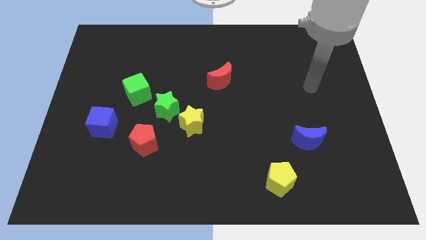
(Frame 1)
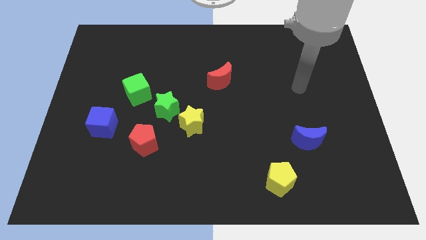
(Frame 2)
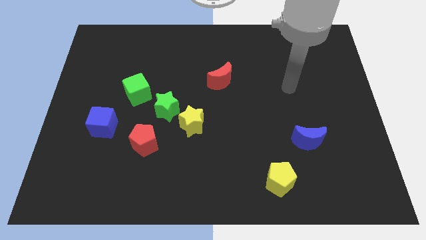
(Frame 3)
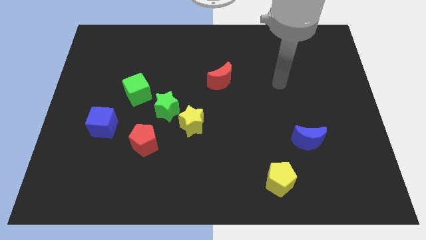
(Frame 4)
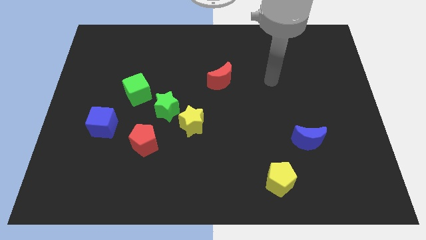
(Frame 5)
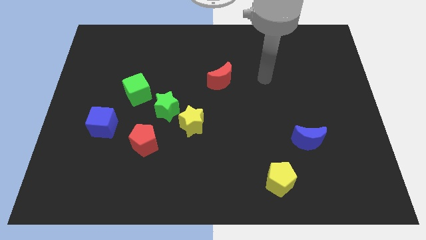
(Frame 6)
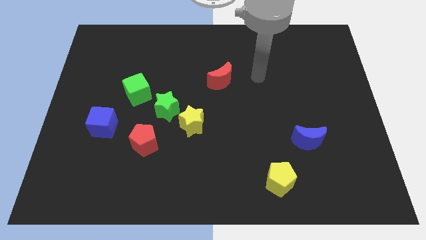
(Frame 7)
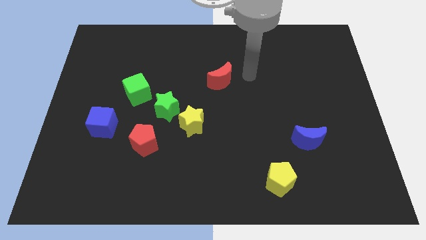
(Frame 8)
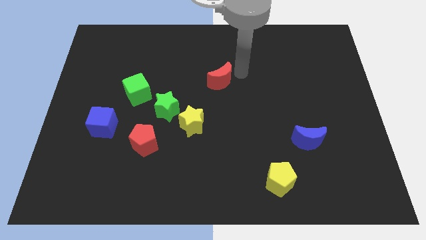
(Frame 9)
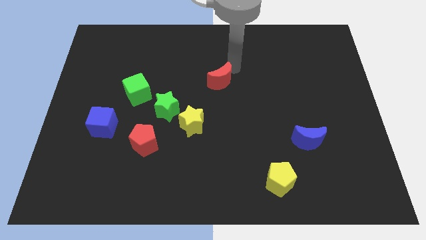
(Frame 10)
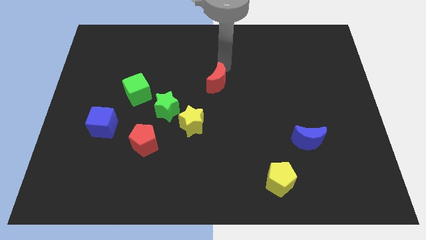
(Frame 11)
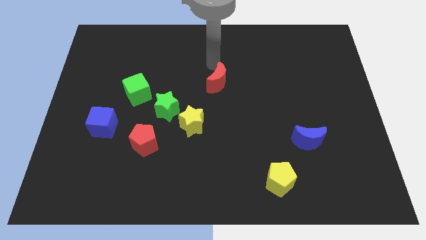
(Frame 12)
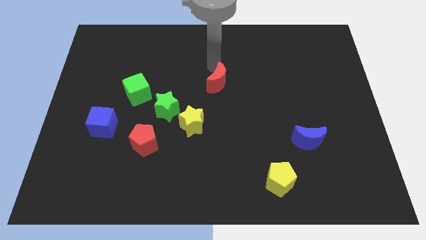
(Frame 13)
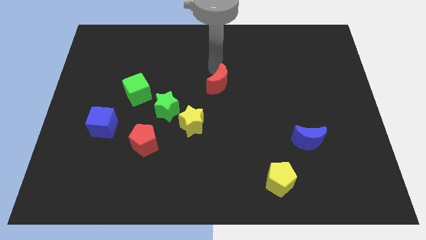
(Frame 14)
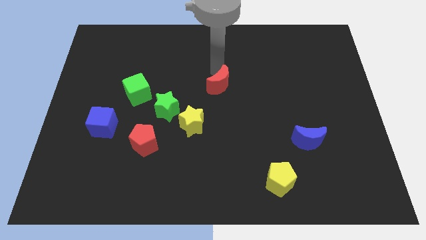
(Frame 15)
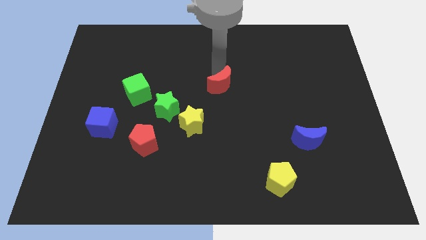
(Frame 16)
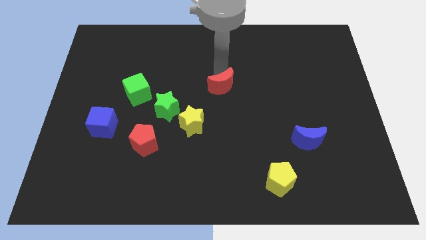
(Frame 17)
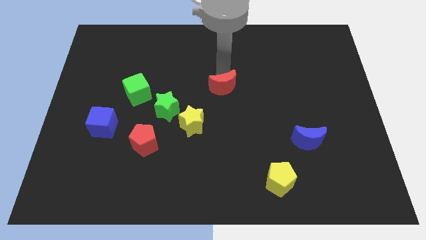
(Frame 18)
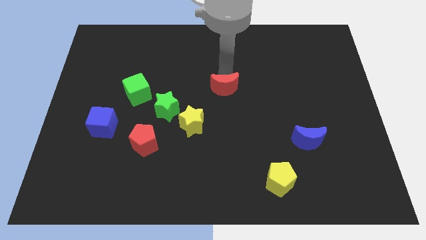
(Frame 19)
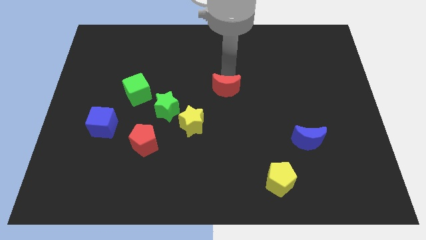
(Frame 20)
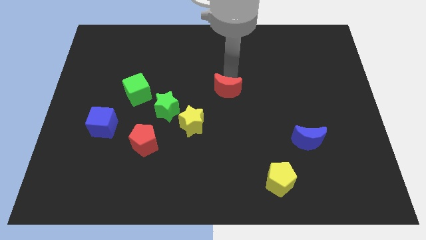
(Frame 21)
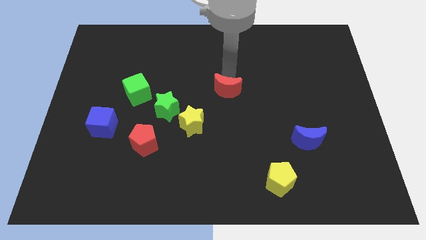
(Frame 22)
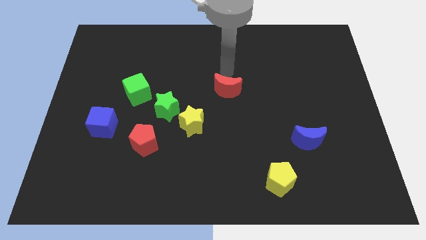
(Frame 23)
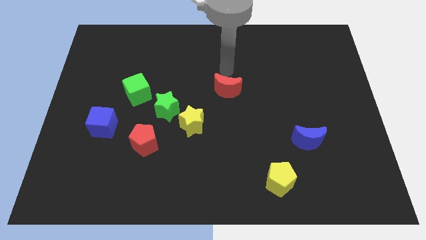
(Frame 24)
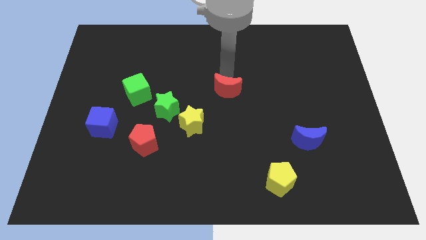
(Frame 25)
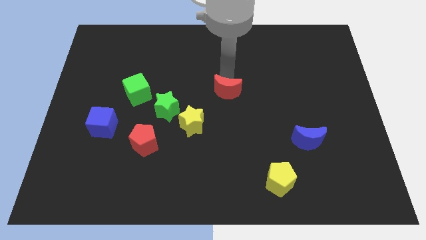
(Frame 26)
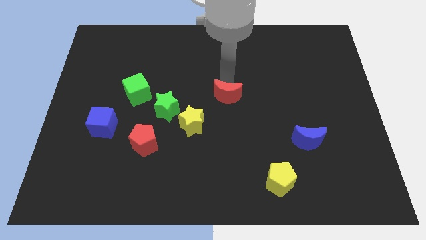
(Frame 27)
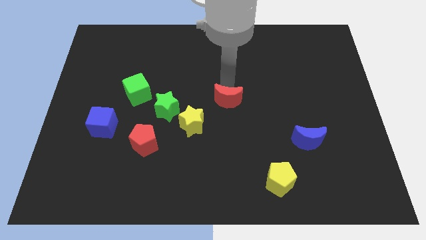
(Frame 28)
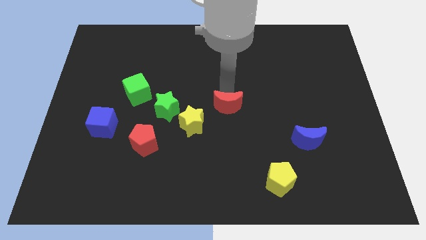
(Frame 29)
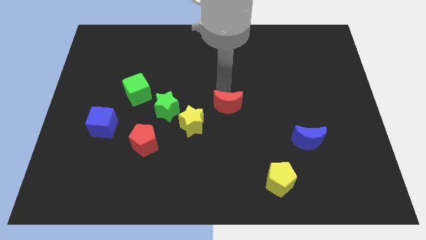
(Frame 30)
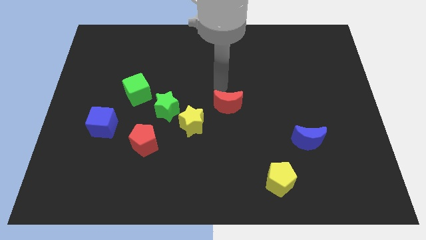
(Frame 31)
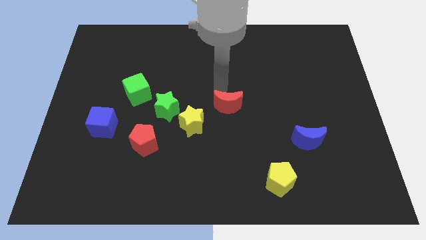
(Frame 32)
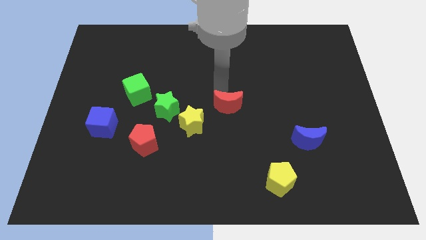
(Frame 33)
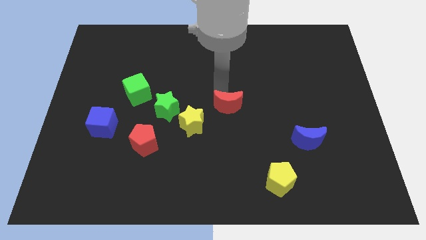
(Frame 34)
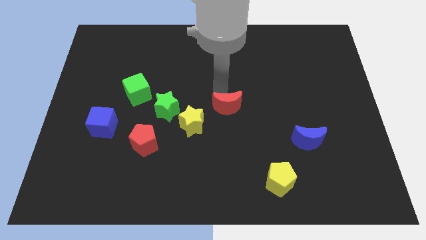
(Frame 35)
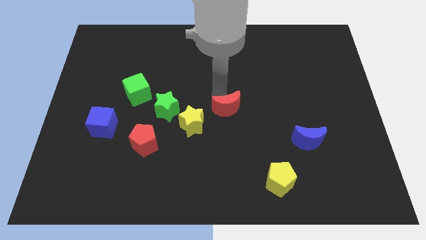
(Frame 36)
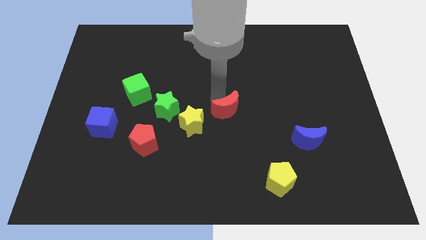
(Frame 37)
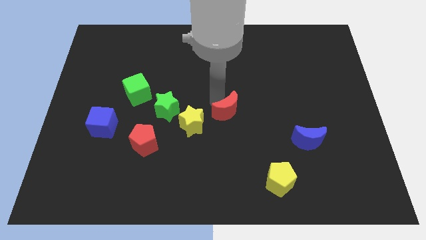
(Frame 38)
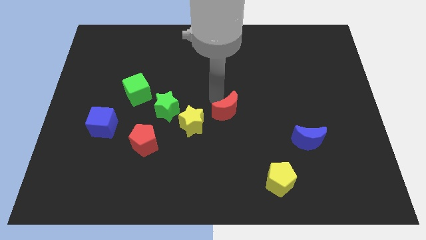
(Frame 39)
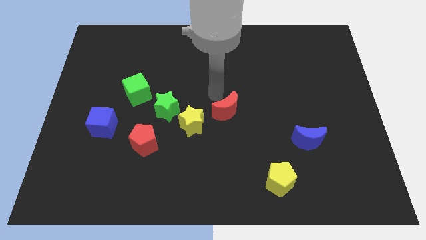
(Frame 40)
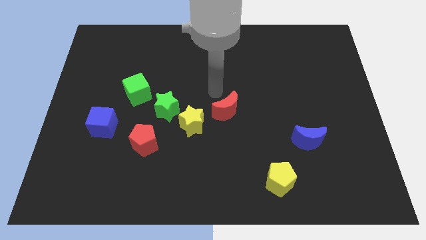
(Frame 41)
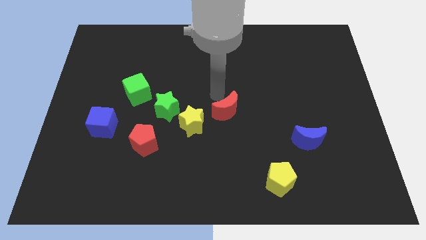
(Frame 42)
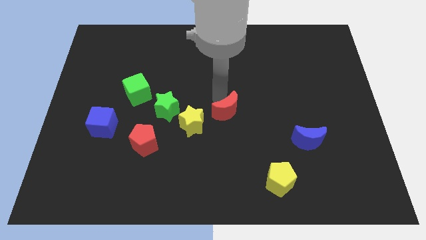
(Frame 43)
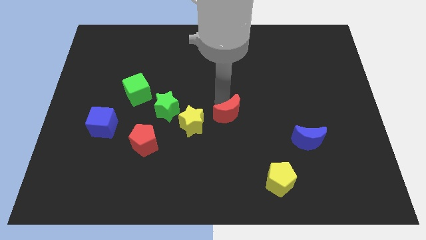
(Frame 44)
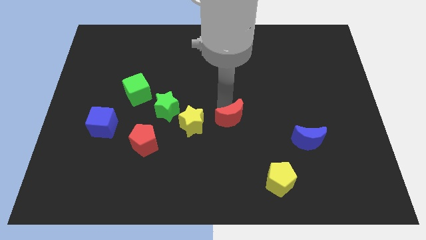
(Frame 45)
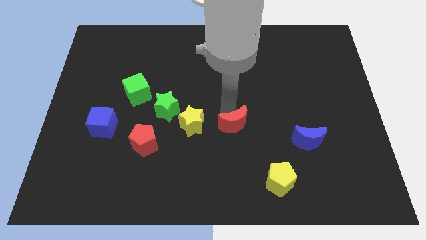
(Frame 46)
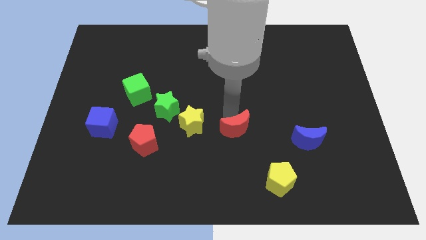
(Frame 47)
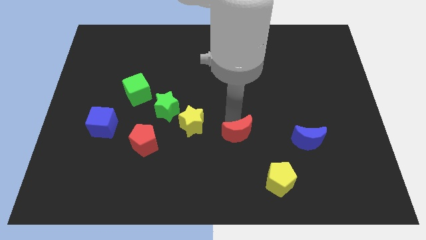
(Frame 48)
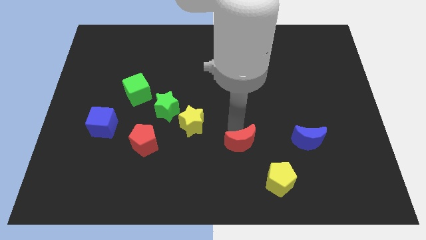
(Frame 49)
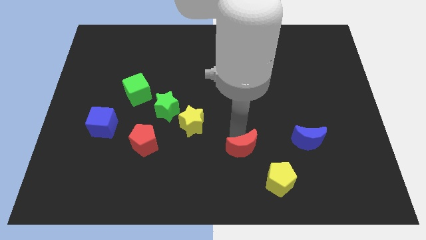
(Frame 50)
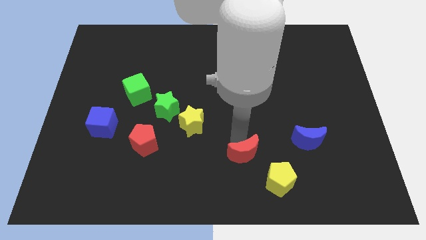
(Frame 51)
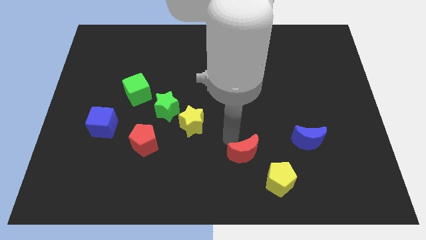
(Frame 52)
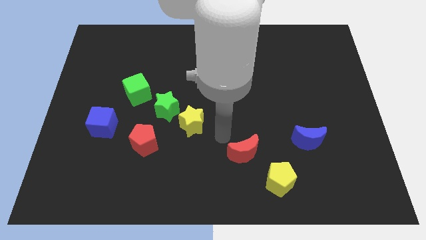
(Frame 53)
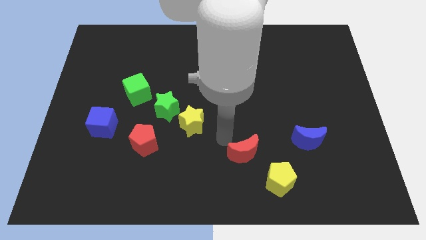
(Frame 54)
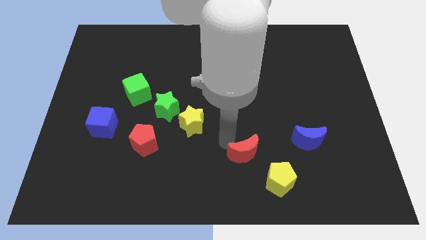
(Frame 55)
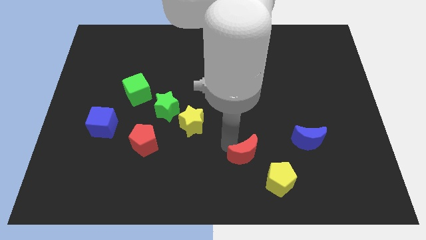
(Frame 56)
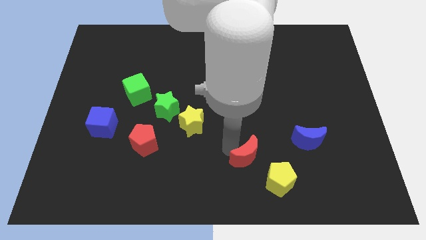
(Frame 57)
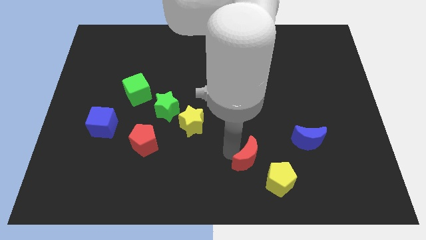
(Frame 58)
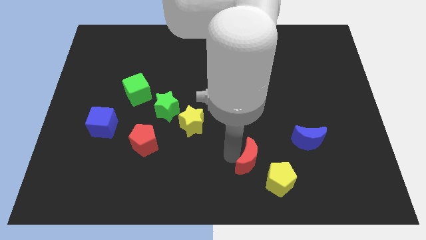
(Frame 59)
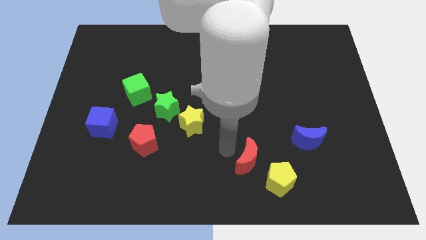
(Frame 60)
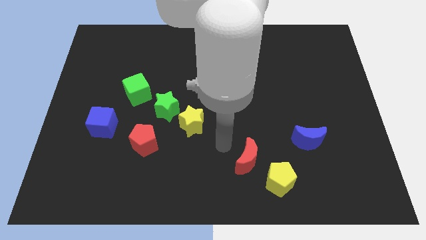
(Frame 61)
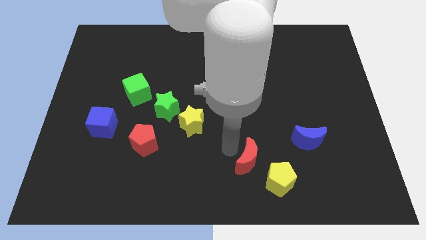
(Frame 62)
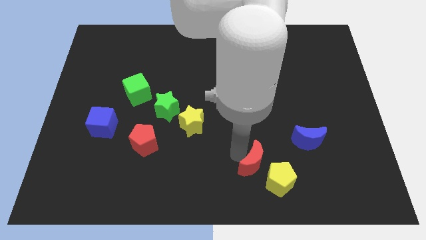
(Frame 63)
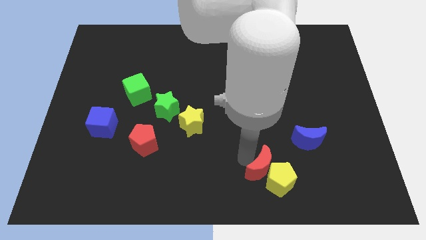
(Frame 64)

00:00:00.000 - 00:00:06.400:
move the red moon close to the yellow pentagon

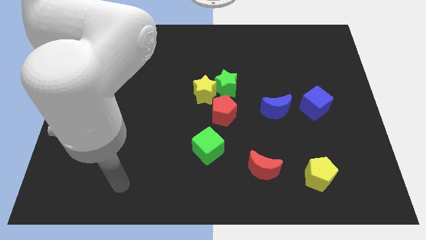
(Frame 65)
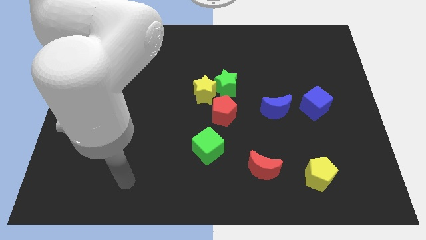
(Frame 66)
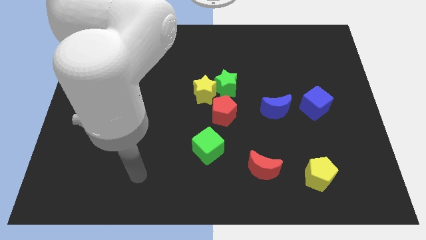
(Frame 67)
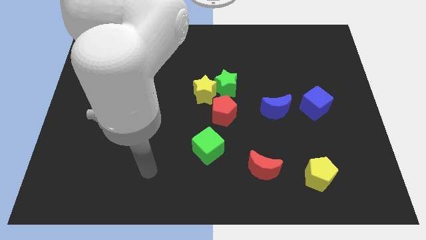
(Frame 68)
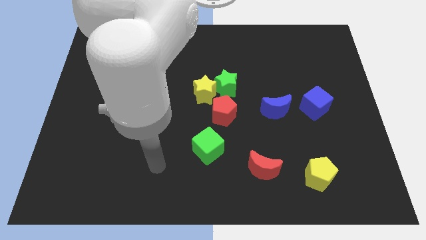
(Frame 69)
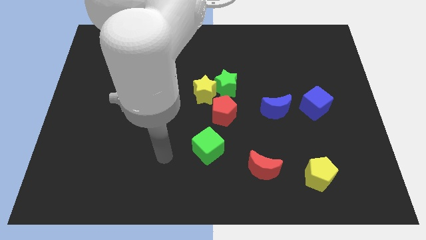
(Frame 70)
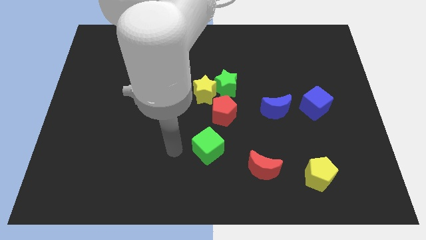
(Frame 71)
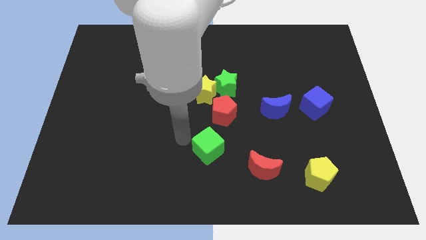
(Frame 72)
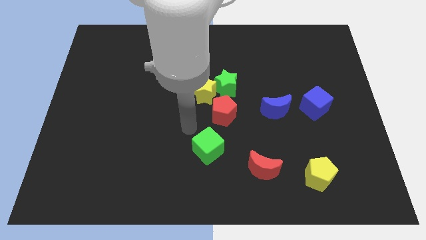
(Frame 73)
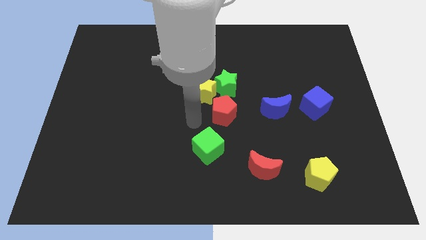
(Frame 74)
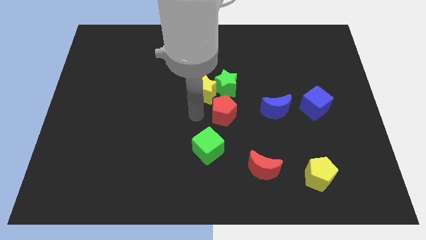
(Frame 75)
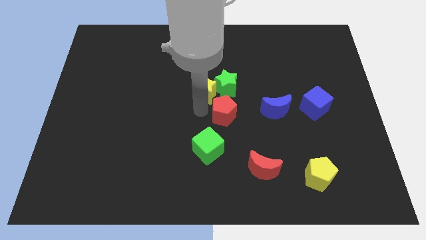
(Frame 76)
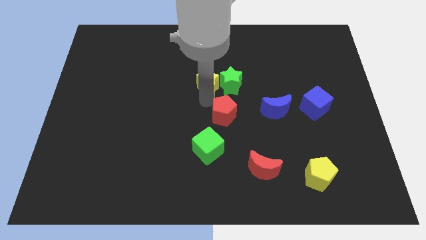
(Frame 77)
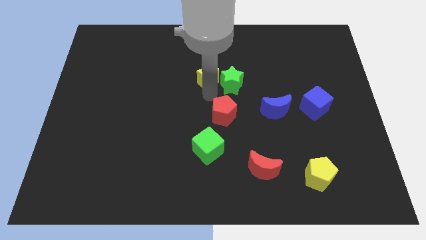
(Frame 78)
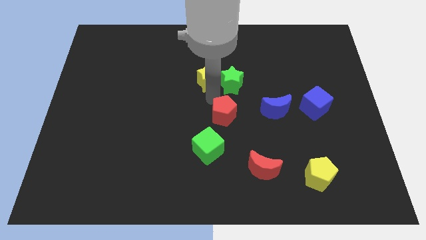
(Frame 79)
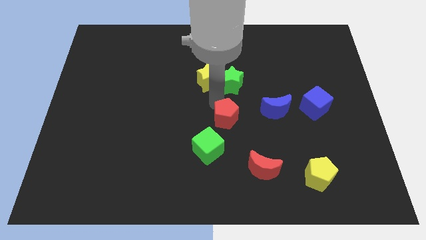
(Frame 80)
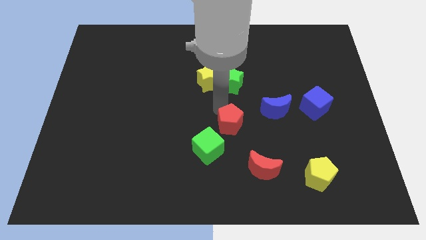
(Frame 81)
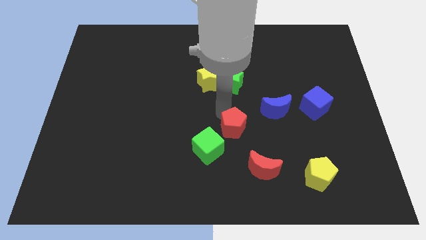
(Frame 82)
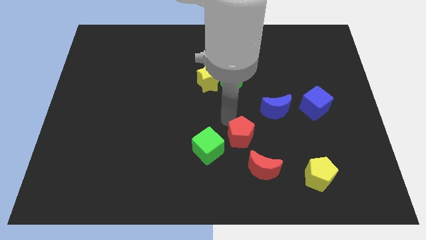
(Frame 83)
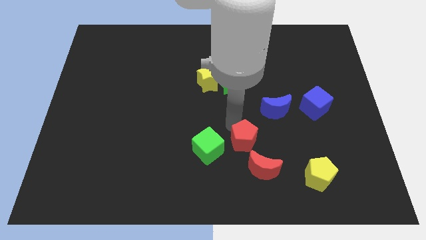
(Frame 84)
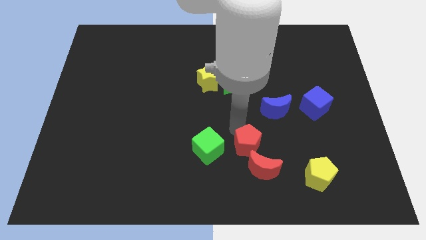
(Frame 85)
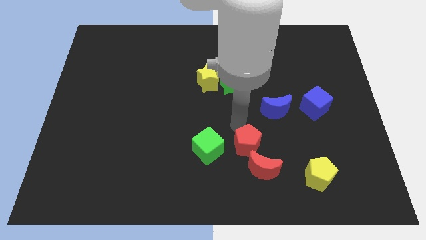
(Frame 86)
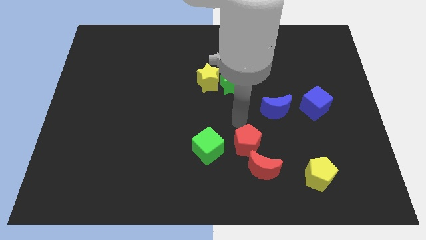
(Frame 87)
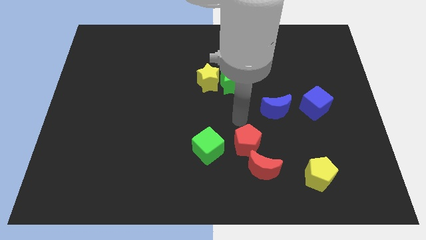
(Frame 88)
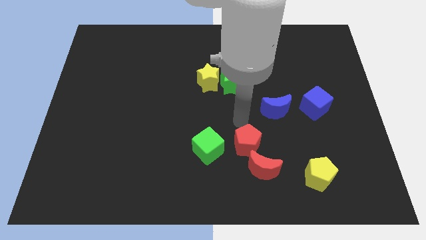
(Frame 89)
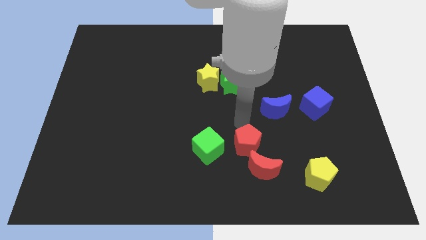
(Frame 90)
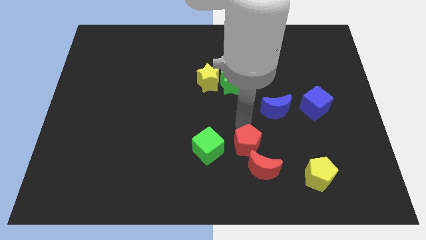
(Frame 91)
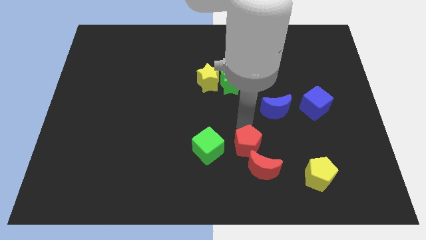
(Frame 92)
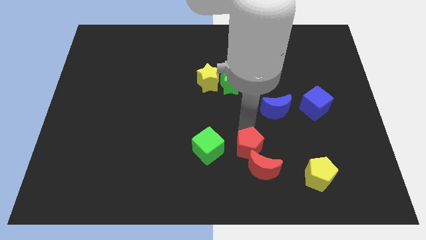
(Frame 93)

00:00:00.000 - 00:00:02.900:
move the red pentagon close to the red moon
